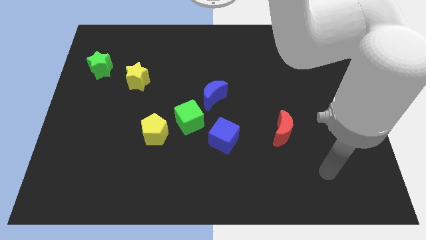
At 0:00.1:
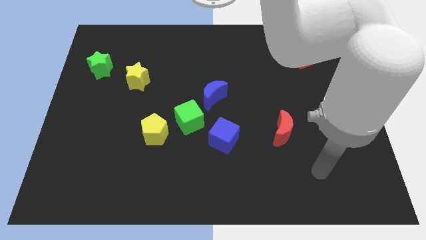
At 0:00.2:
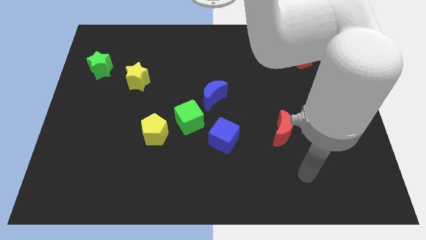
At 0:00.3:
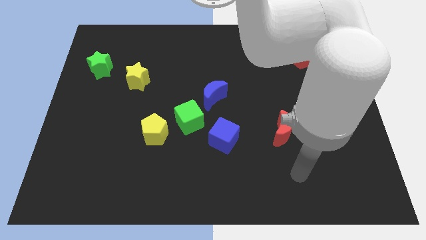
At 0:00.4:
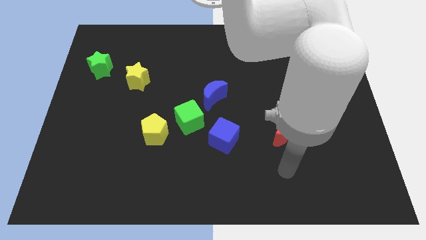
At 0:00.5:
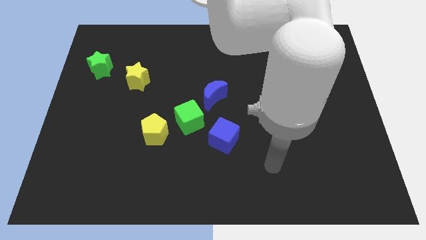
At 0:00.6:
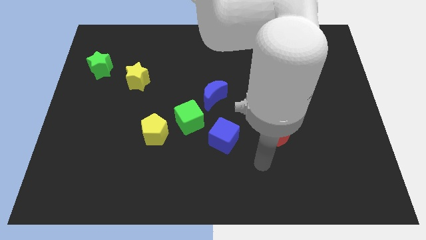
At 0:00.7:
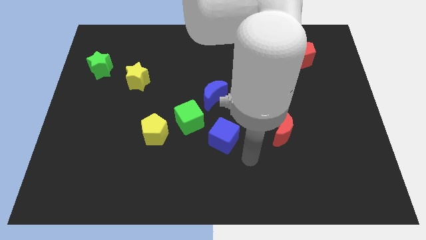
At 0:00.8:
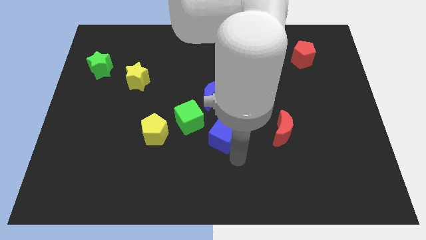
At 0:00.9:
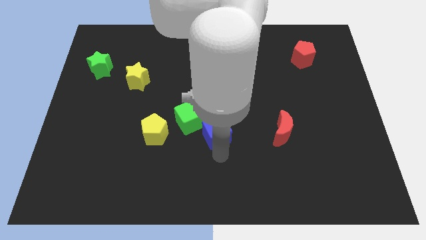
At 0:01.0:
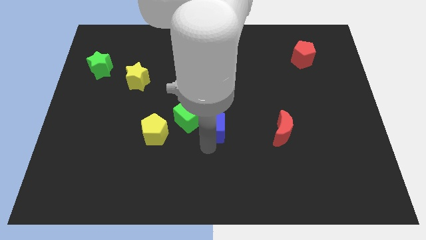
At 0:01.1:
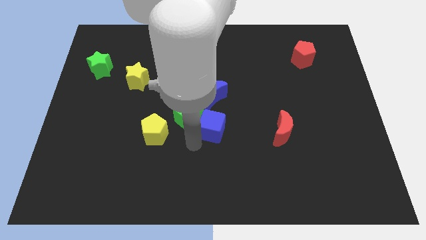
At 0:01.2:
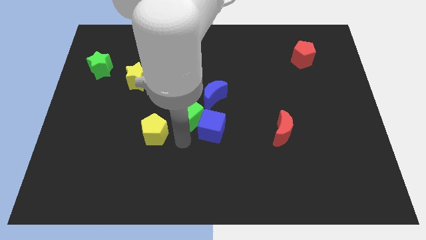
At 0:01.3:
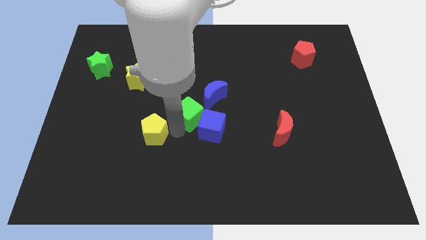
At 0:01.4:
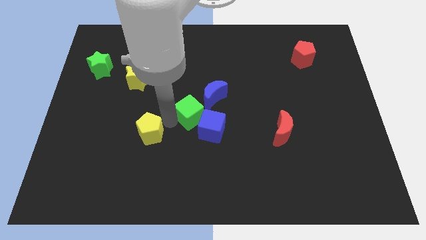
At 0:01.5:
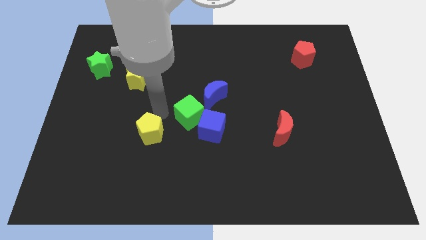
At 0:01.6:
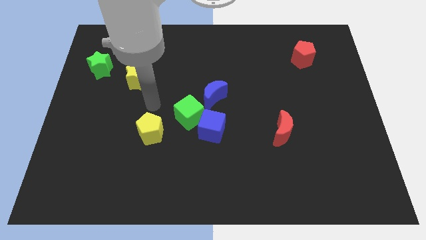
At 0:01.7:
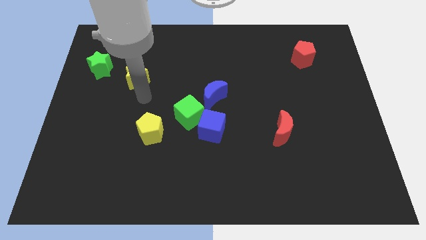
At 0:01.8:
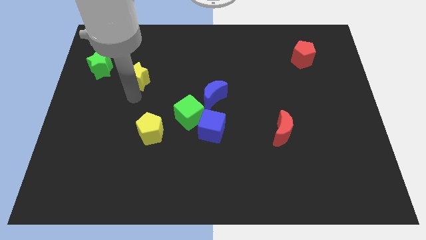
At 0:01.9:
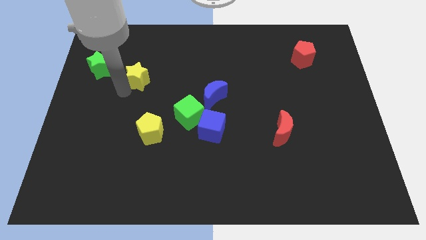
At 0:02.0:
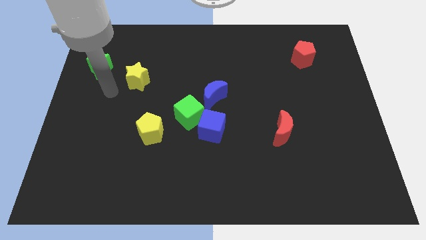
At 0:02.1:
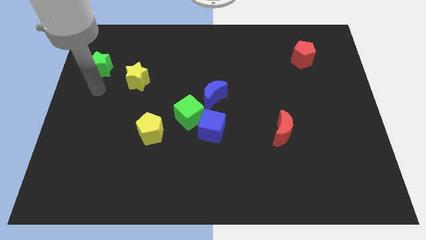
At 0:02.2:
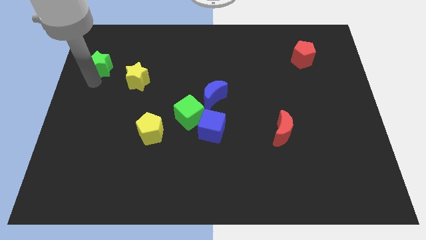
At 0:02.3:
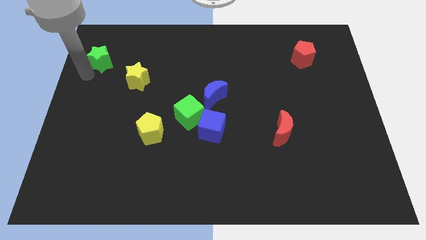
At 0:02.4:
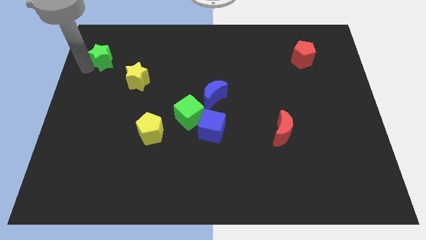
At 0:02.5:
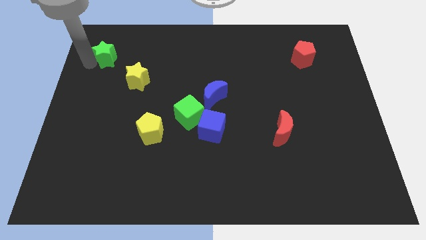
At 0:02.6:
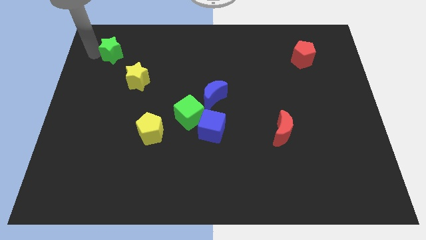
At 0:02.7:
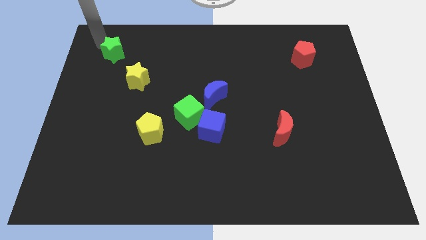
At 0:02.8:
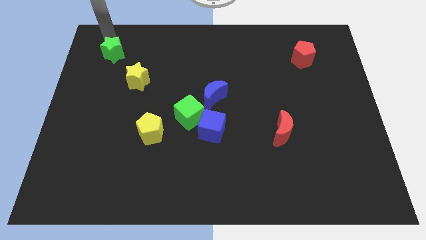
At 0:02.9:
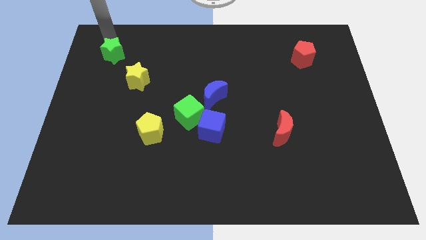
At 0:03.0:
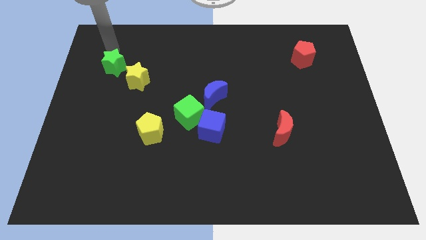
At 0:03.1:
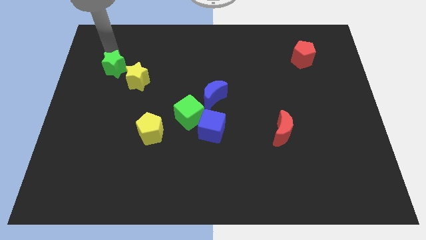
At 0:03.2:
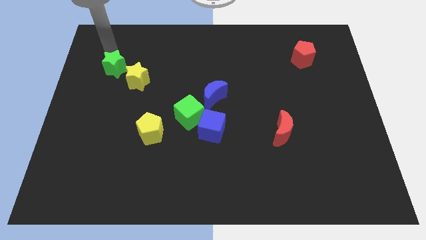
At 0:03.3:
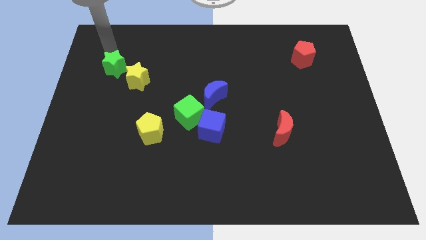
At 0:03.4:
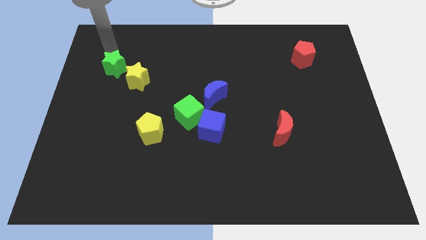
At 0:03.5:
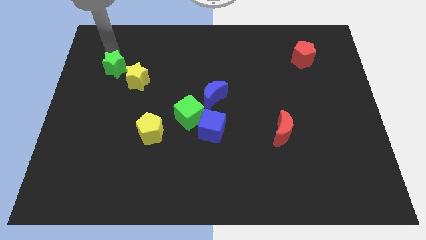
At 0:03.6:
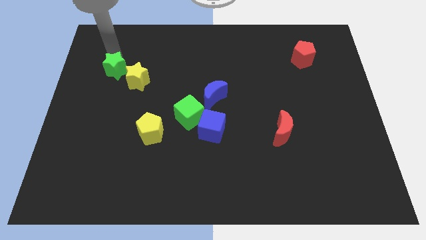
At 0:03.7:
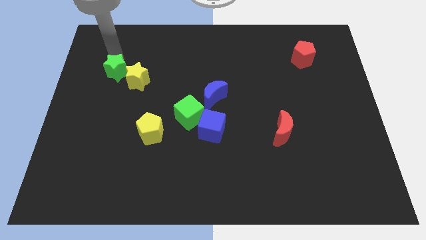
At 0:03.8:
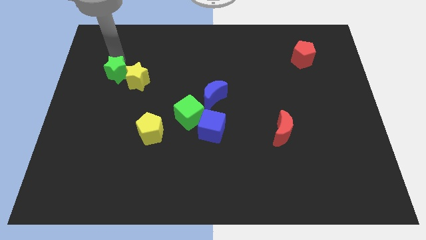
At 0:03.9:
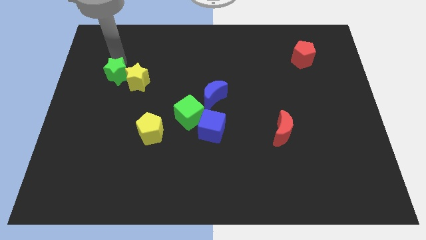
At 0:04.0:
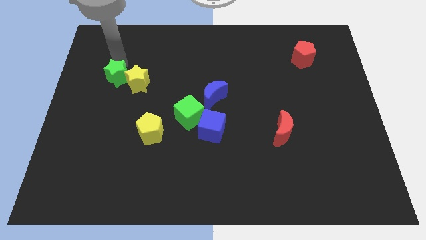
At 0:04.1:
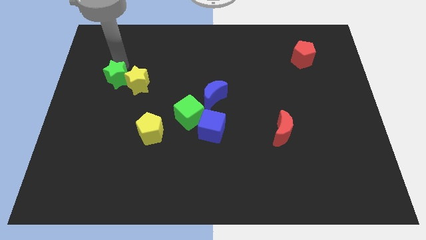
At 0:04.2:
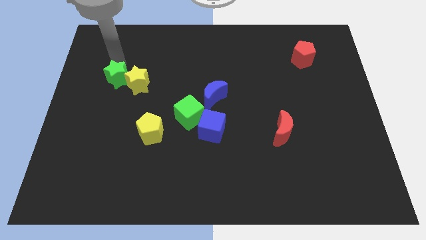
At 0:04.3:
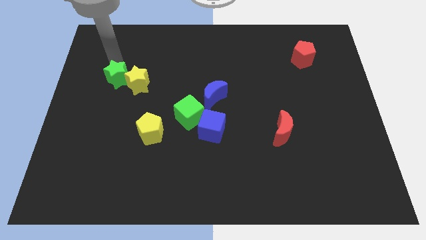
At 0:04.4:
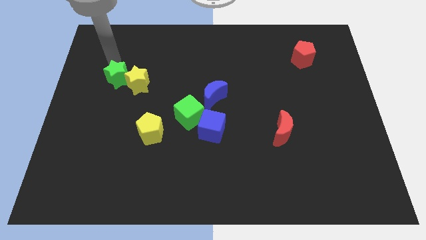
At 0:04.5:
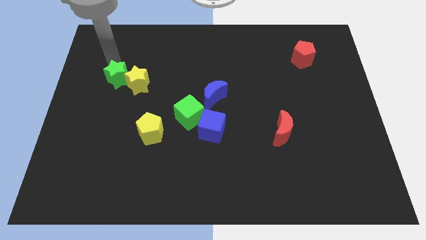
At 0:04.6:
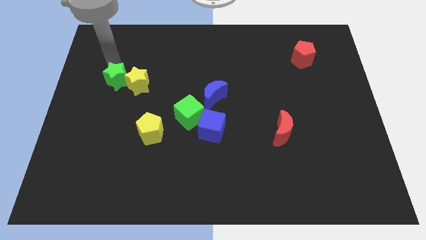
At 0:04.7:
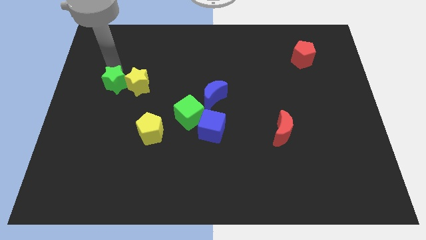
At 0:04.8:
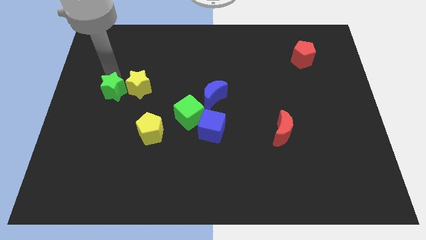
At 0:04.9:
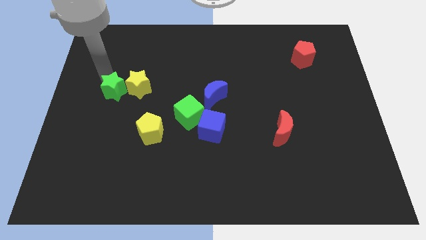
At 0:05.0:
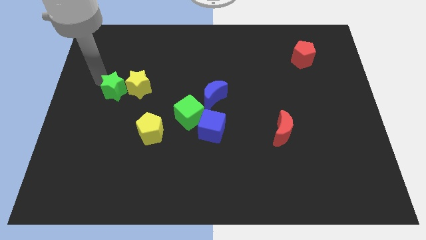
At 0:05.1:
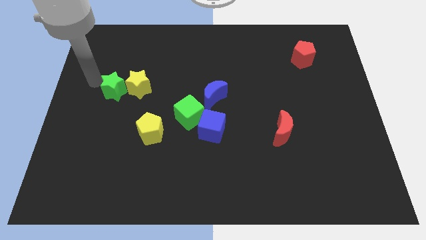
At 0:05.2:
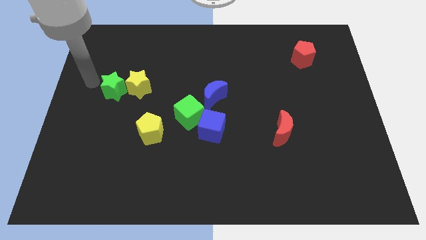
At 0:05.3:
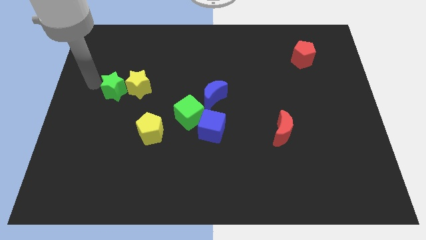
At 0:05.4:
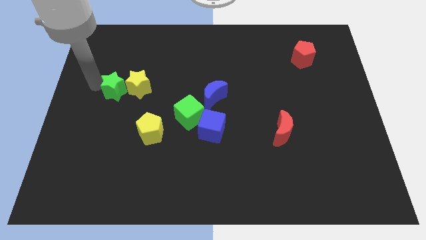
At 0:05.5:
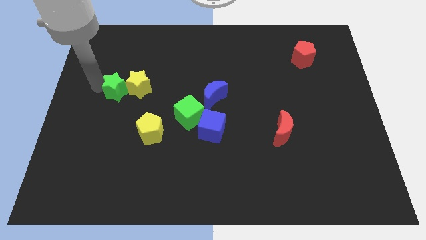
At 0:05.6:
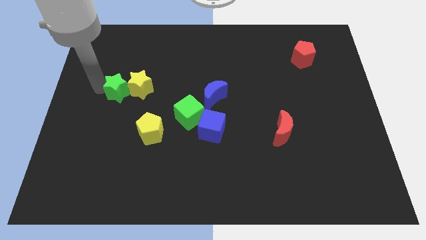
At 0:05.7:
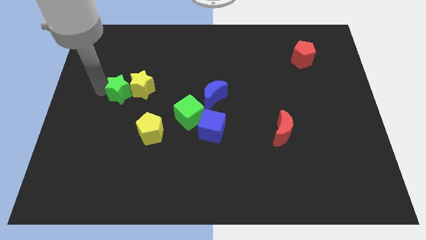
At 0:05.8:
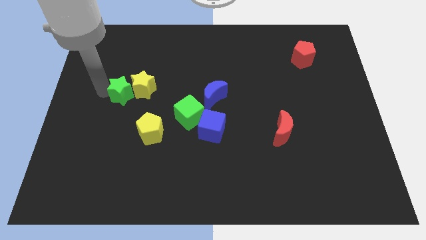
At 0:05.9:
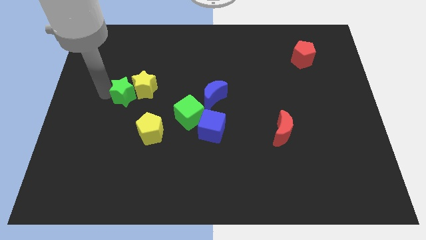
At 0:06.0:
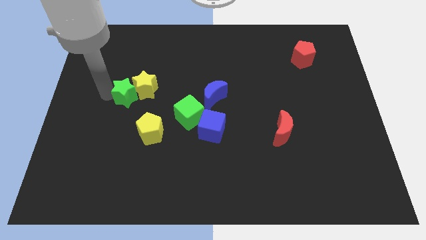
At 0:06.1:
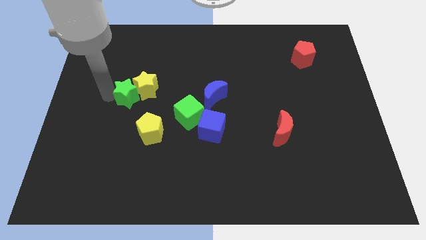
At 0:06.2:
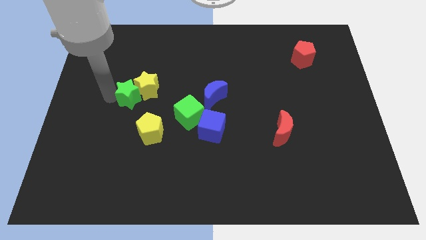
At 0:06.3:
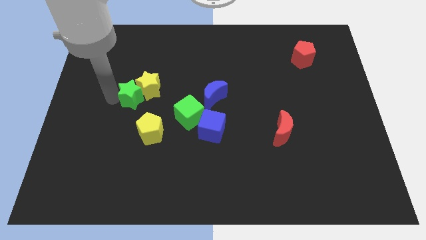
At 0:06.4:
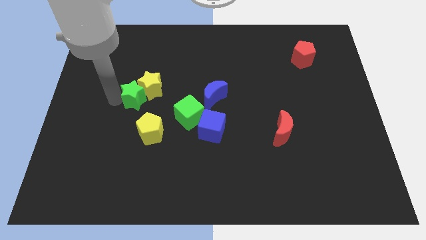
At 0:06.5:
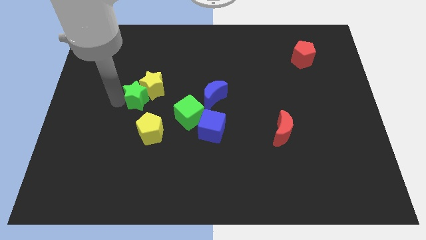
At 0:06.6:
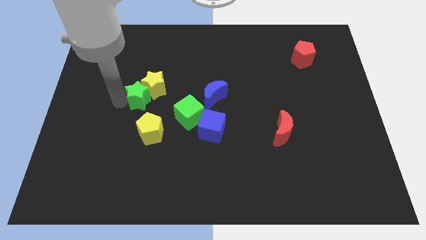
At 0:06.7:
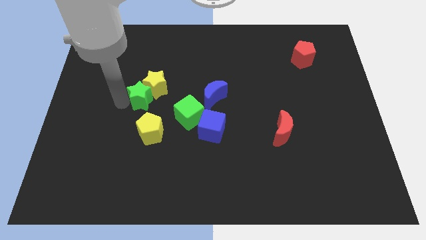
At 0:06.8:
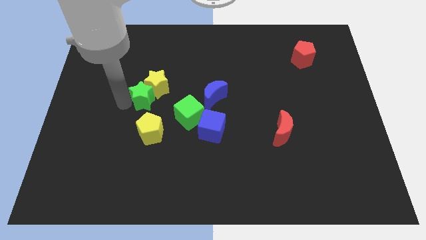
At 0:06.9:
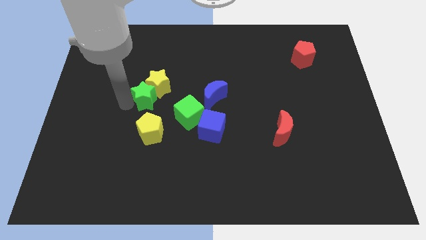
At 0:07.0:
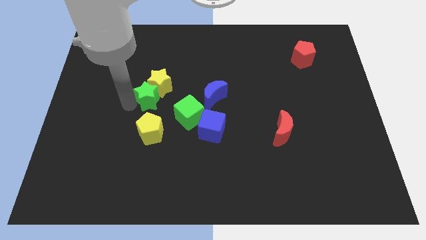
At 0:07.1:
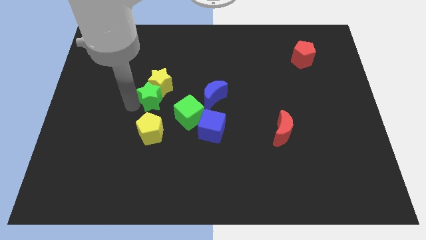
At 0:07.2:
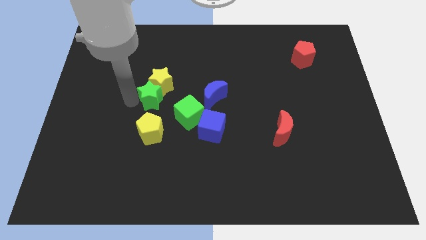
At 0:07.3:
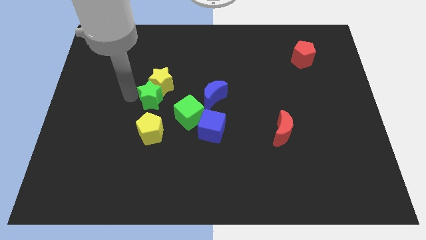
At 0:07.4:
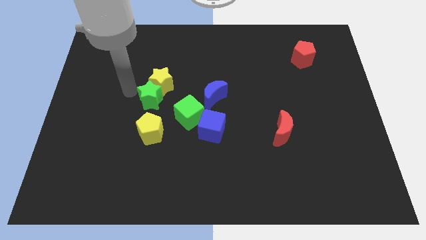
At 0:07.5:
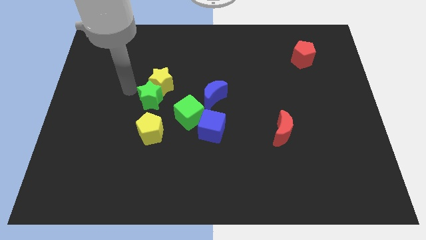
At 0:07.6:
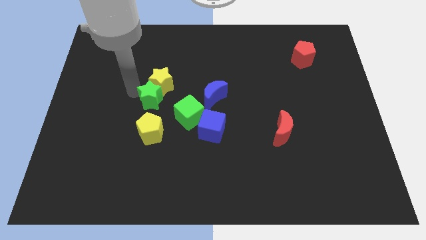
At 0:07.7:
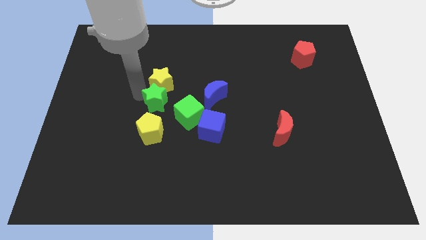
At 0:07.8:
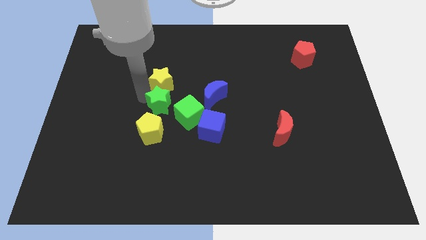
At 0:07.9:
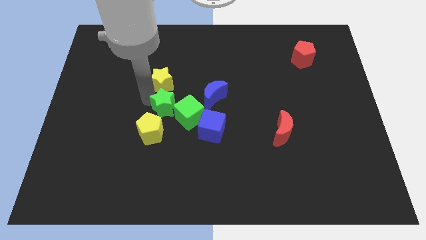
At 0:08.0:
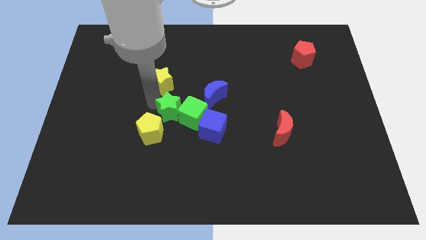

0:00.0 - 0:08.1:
put the green star towards the green cube

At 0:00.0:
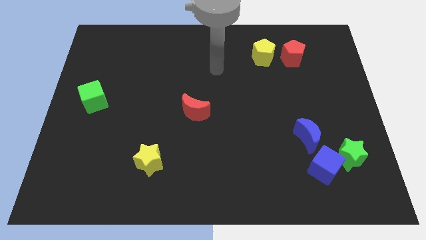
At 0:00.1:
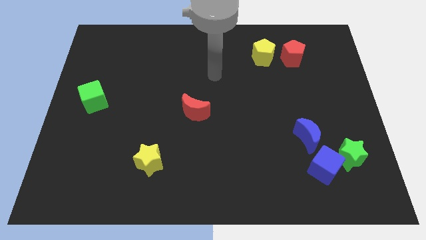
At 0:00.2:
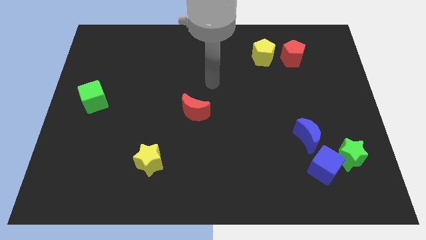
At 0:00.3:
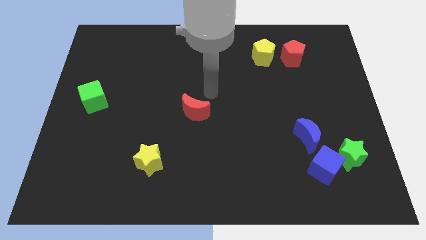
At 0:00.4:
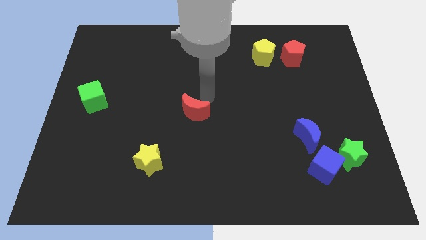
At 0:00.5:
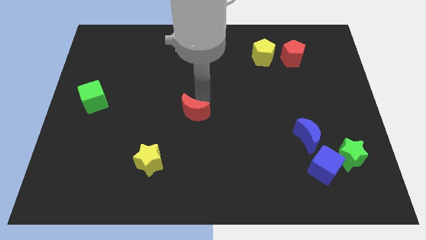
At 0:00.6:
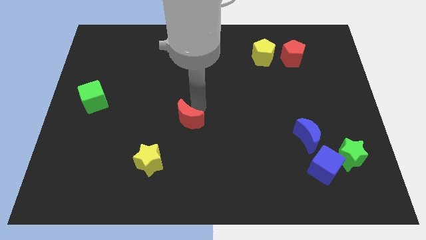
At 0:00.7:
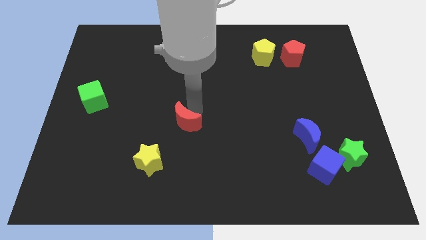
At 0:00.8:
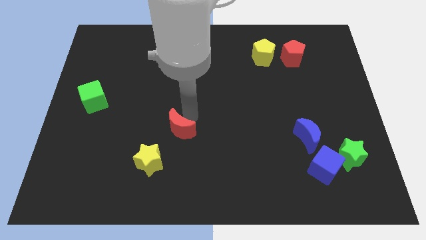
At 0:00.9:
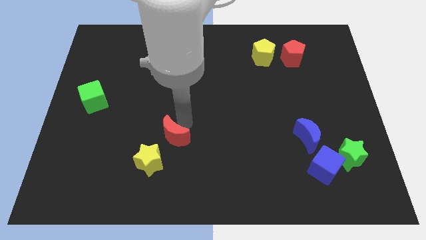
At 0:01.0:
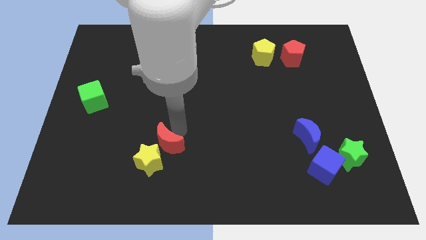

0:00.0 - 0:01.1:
push the red moon towards the yellow star
